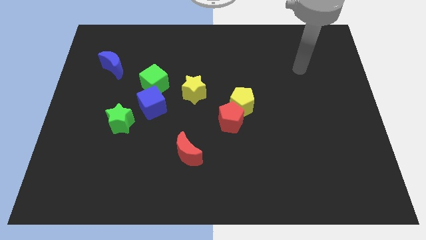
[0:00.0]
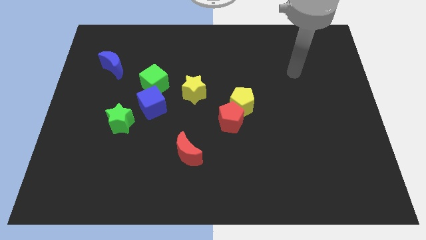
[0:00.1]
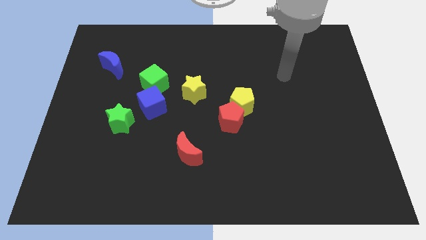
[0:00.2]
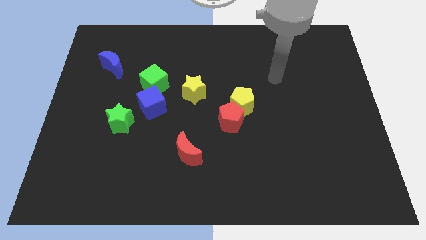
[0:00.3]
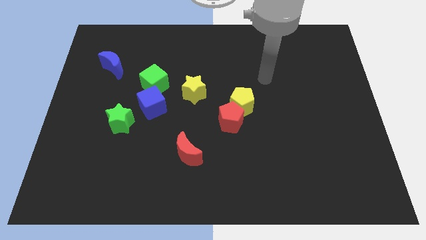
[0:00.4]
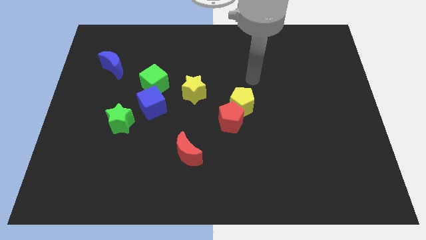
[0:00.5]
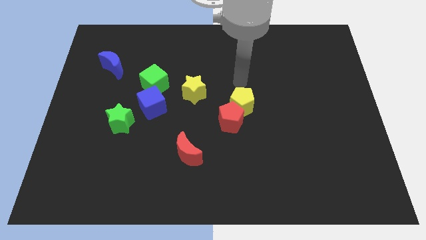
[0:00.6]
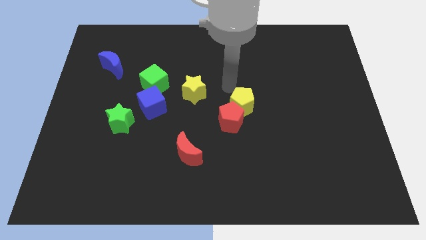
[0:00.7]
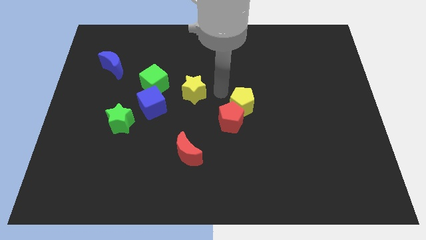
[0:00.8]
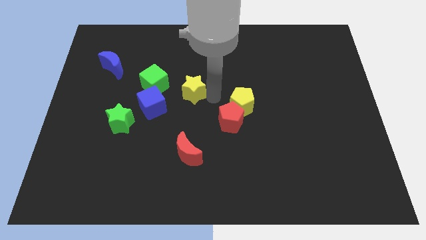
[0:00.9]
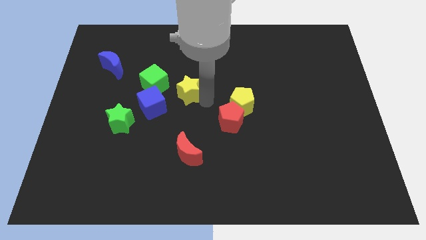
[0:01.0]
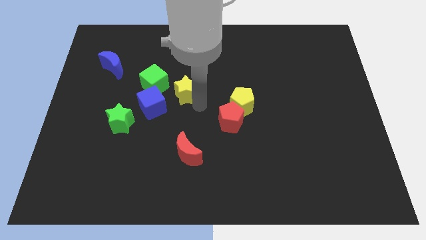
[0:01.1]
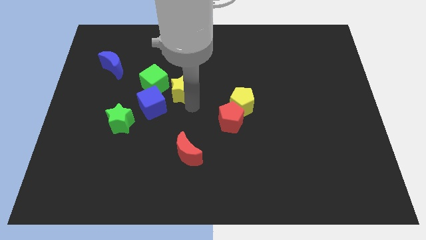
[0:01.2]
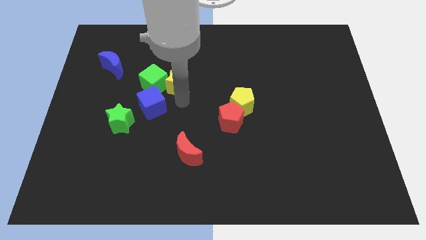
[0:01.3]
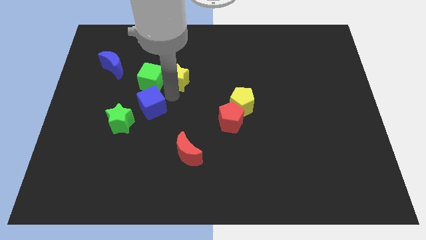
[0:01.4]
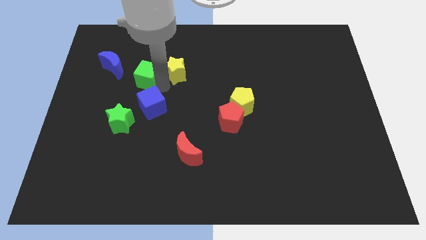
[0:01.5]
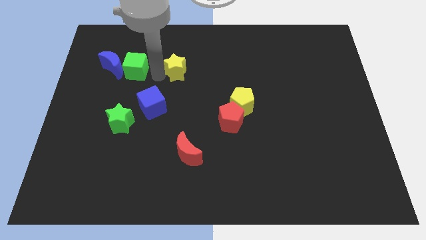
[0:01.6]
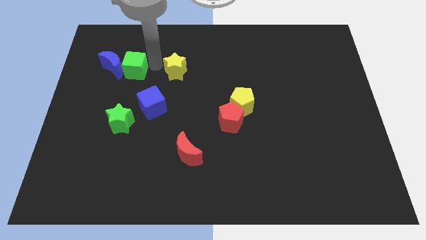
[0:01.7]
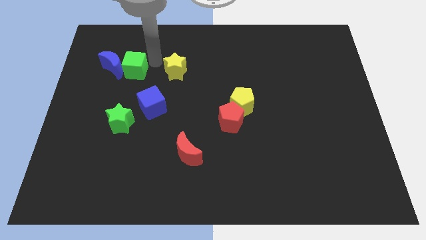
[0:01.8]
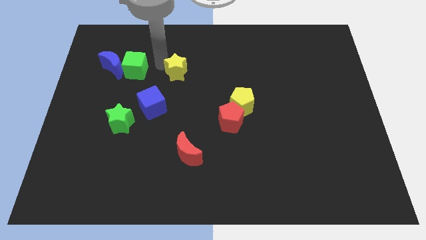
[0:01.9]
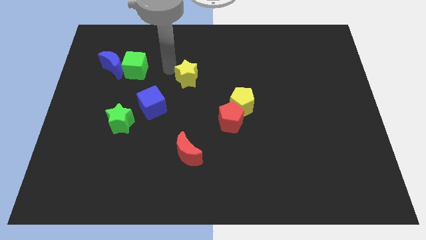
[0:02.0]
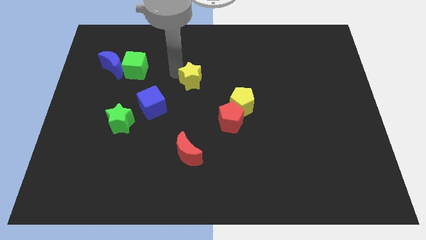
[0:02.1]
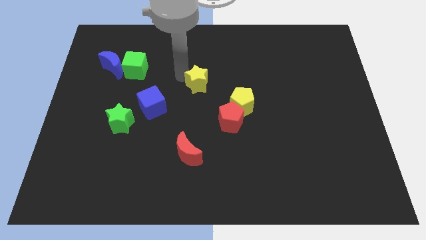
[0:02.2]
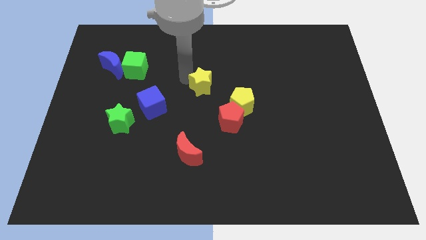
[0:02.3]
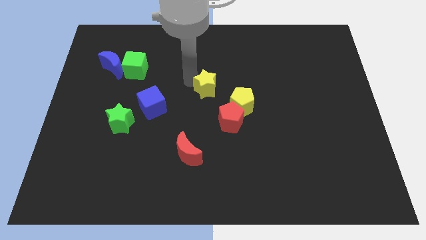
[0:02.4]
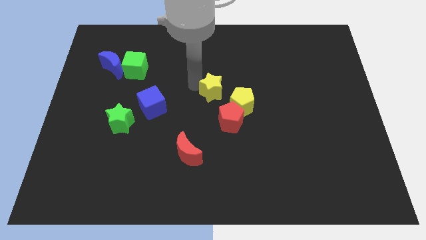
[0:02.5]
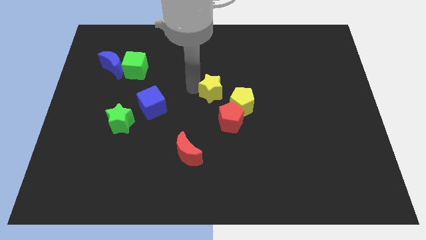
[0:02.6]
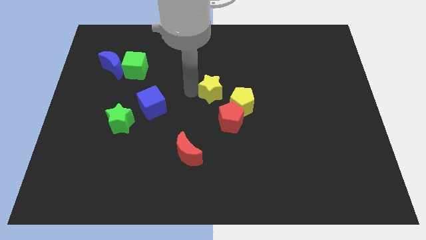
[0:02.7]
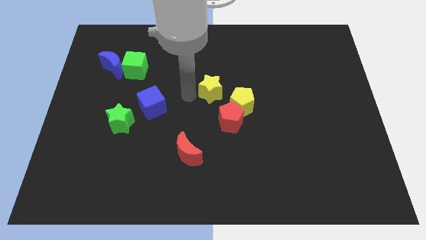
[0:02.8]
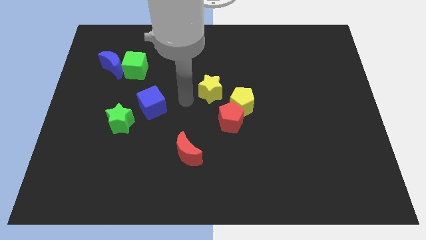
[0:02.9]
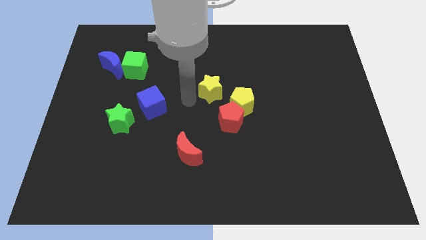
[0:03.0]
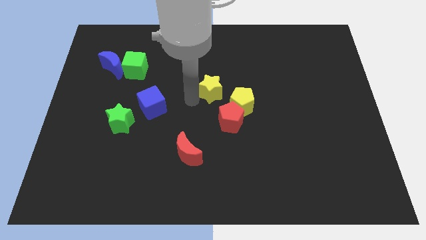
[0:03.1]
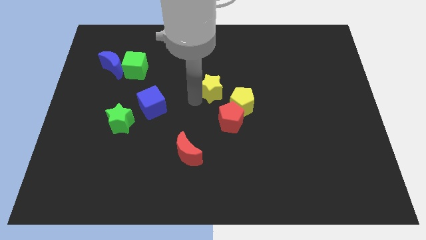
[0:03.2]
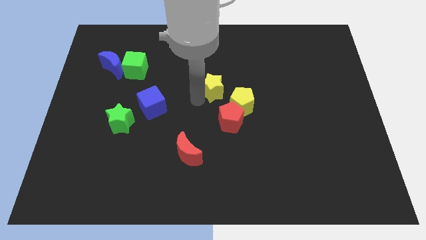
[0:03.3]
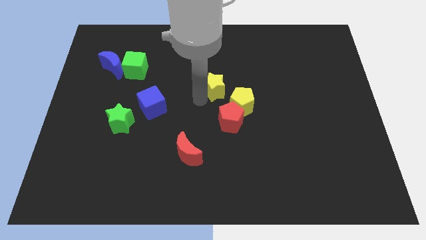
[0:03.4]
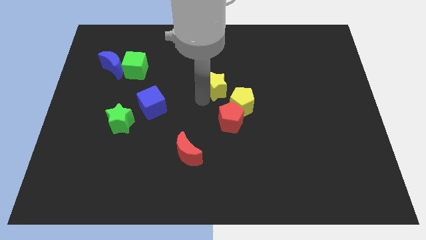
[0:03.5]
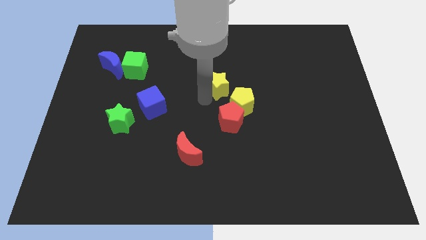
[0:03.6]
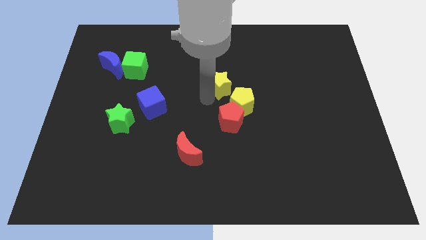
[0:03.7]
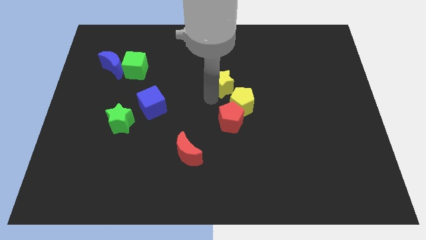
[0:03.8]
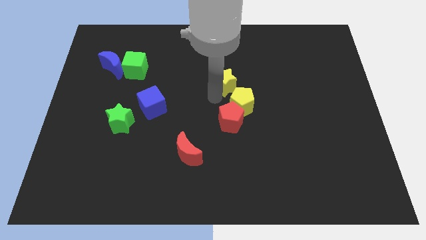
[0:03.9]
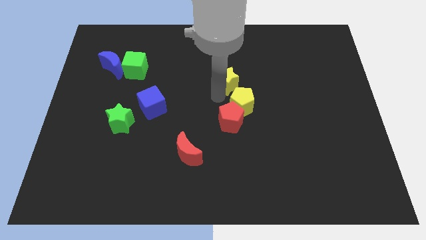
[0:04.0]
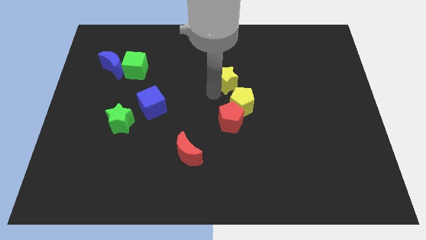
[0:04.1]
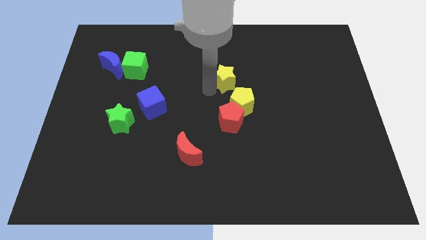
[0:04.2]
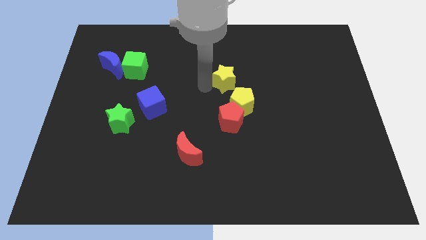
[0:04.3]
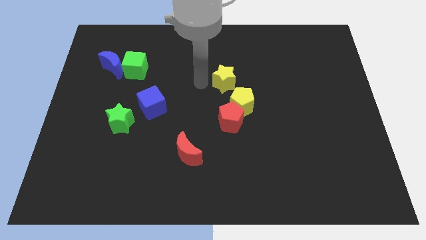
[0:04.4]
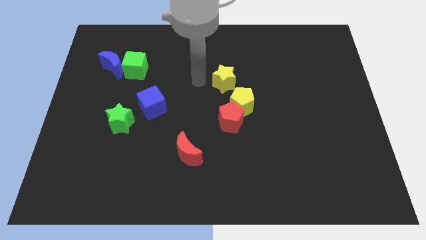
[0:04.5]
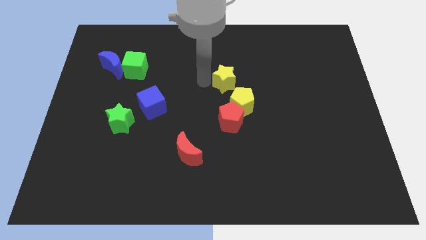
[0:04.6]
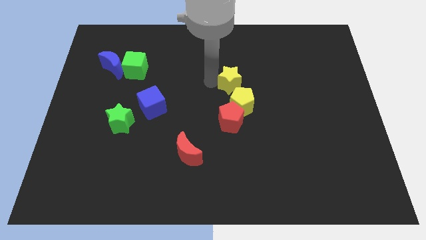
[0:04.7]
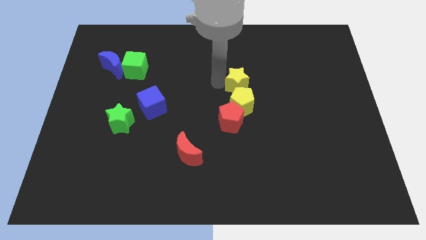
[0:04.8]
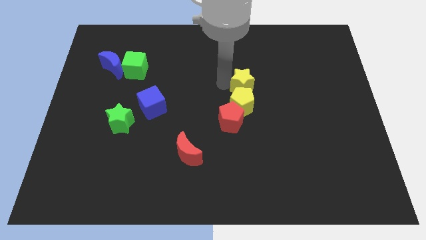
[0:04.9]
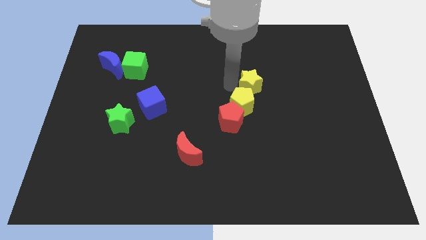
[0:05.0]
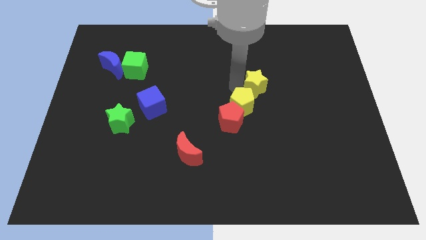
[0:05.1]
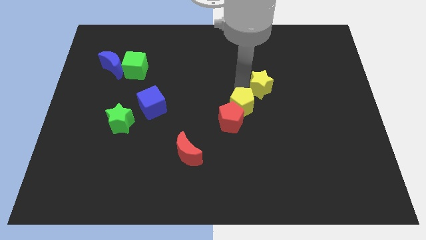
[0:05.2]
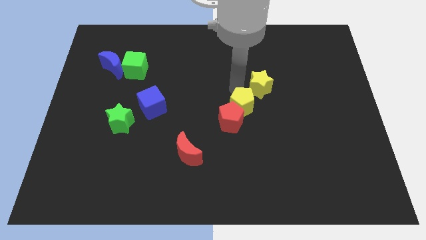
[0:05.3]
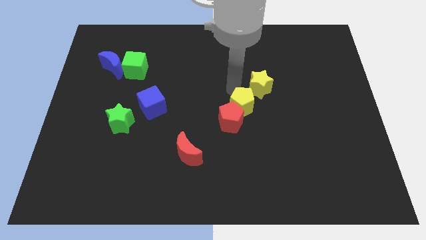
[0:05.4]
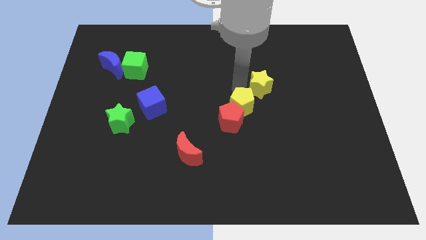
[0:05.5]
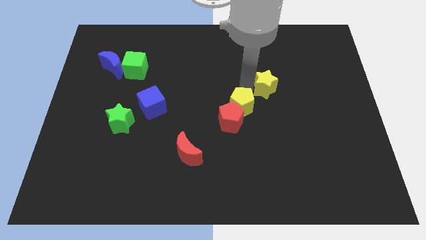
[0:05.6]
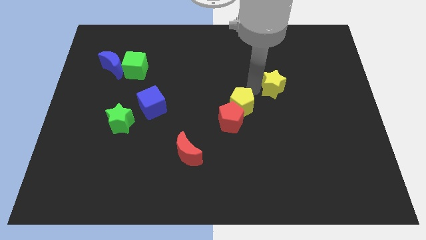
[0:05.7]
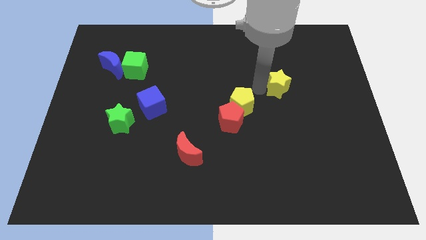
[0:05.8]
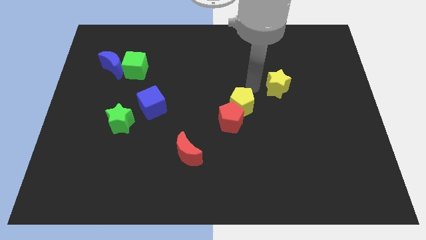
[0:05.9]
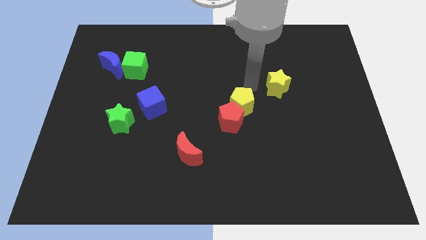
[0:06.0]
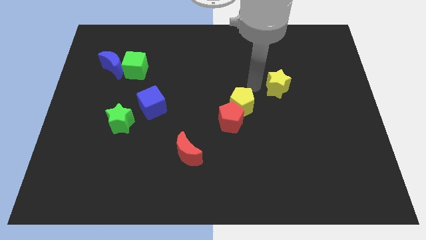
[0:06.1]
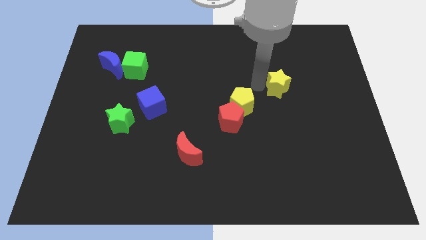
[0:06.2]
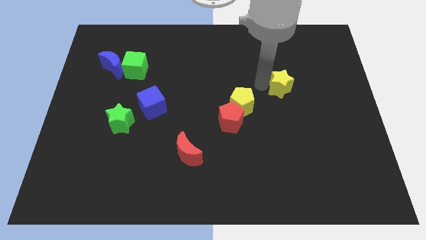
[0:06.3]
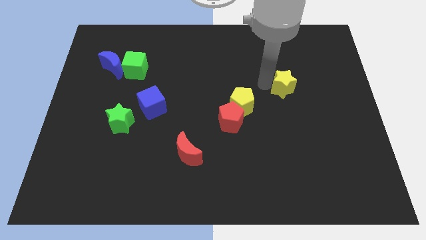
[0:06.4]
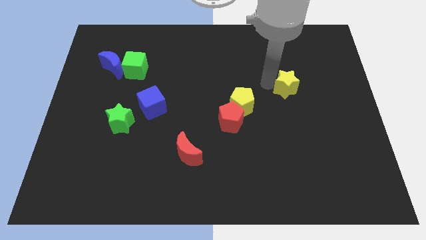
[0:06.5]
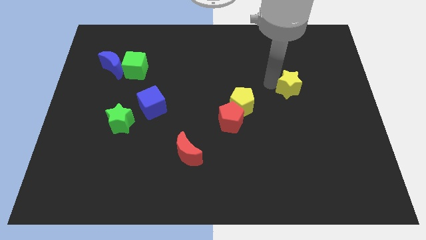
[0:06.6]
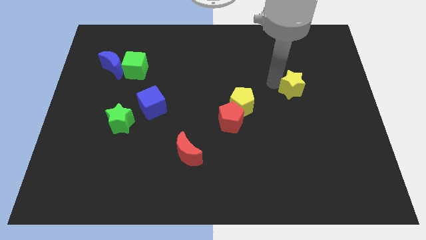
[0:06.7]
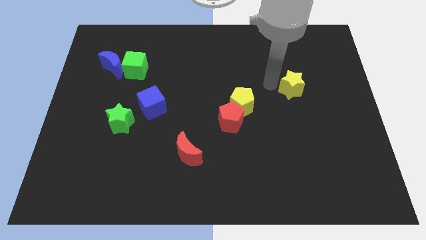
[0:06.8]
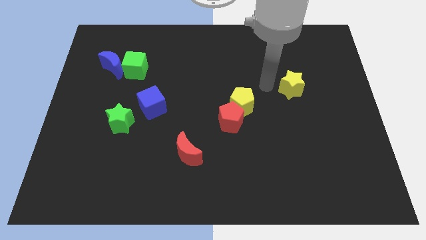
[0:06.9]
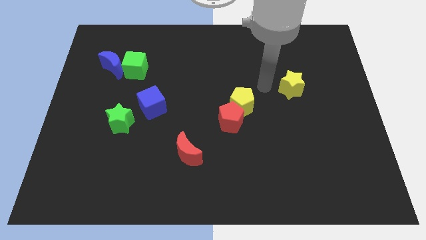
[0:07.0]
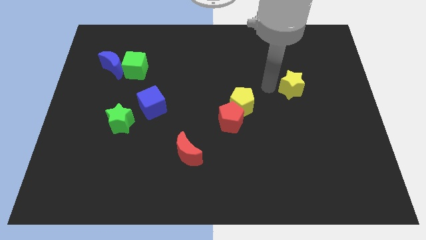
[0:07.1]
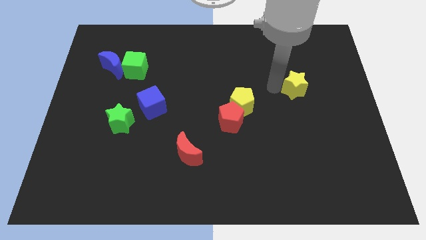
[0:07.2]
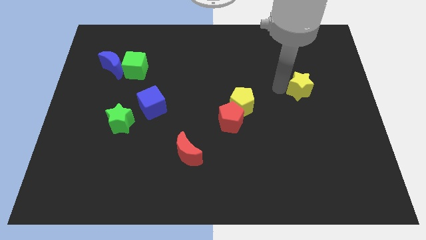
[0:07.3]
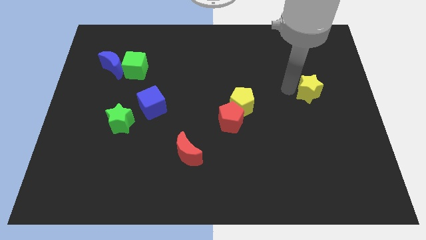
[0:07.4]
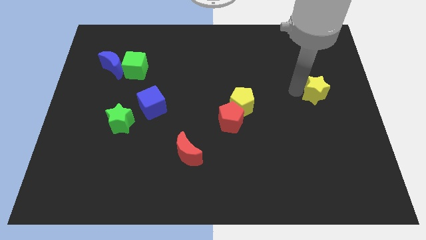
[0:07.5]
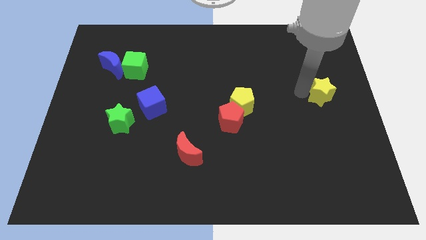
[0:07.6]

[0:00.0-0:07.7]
put the yellow star to the right side of the board
